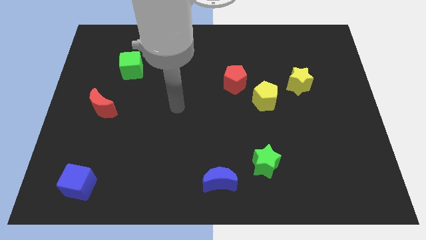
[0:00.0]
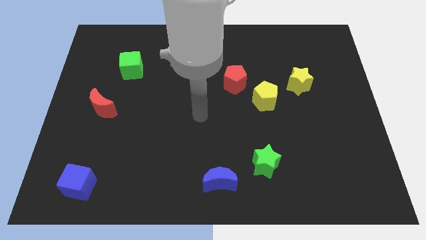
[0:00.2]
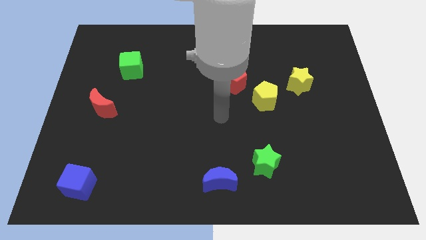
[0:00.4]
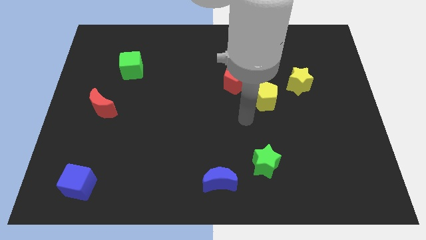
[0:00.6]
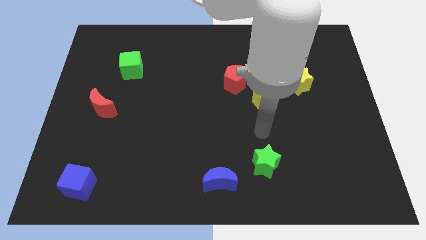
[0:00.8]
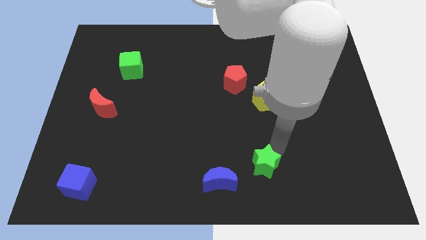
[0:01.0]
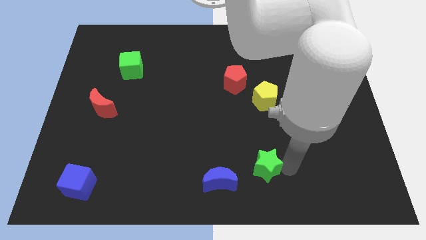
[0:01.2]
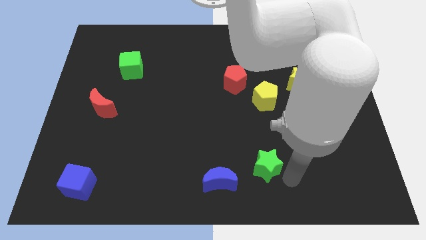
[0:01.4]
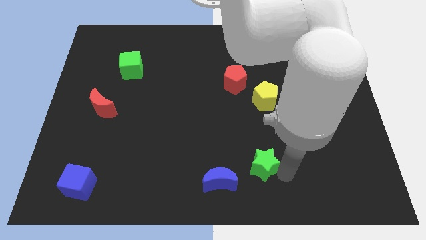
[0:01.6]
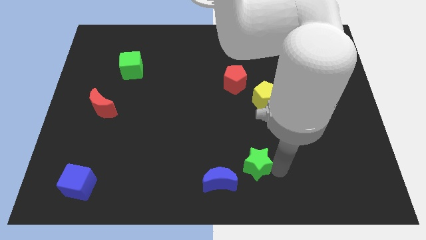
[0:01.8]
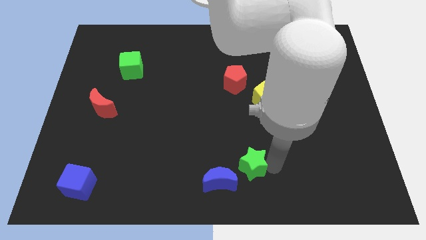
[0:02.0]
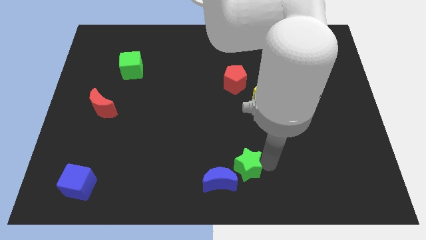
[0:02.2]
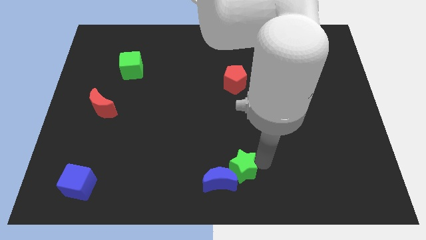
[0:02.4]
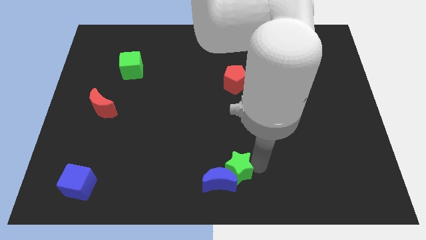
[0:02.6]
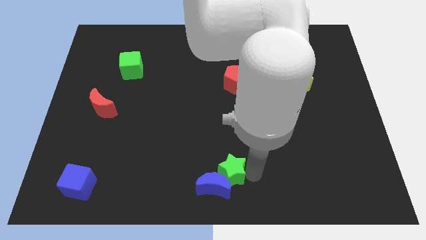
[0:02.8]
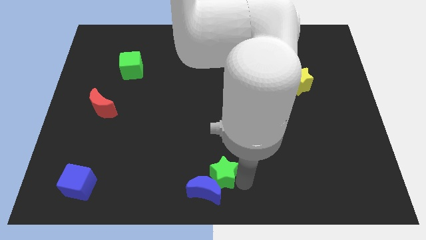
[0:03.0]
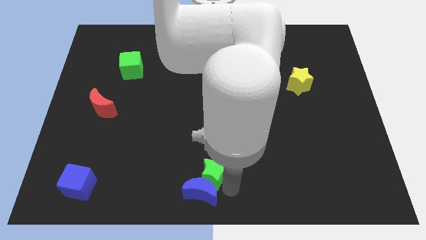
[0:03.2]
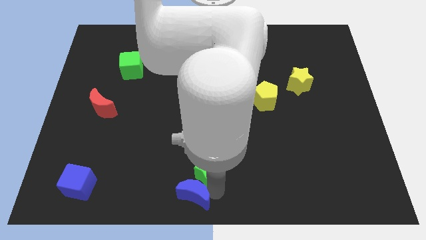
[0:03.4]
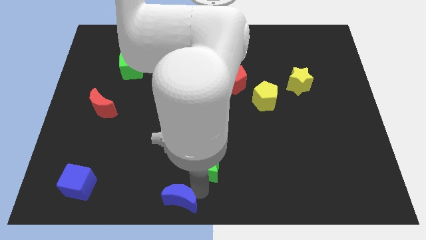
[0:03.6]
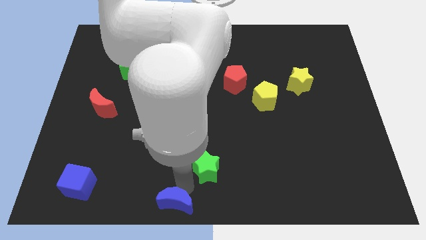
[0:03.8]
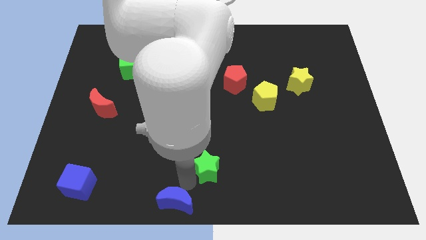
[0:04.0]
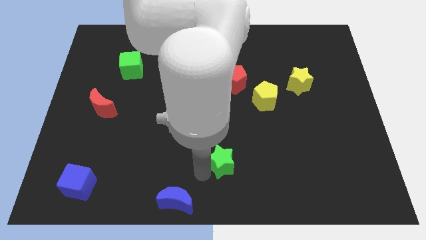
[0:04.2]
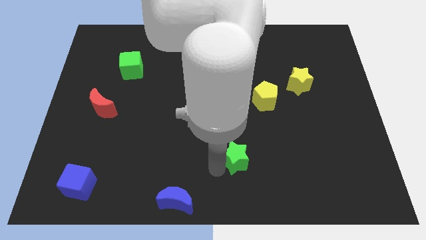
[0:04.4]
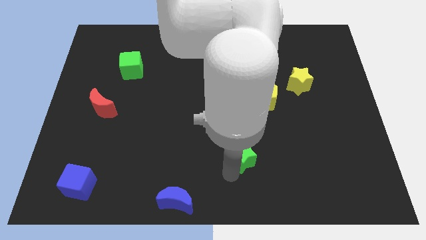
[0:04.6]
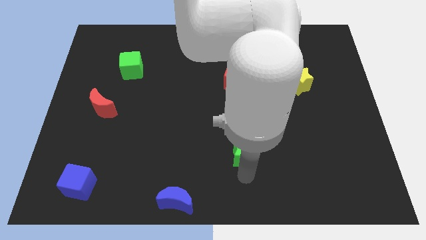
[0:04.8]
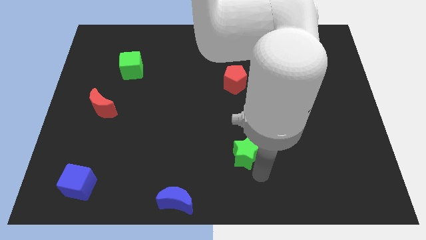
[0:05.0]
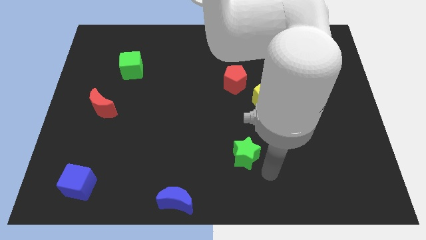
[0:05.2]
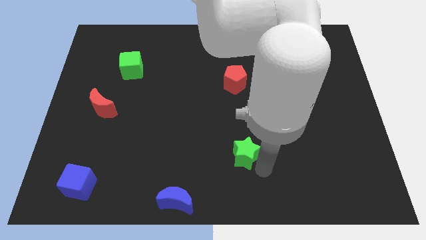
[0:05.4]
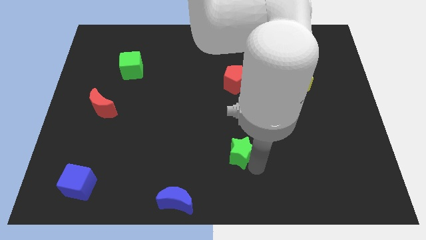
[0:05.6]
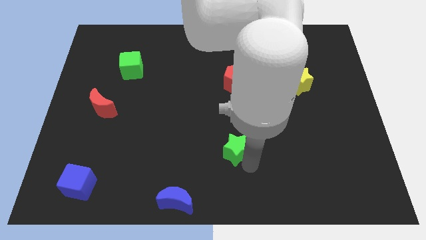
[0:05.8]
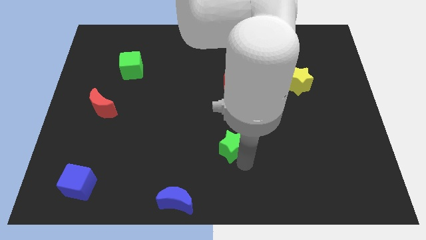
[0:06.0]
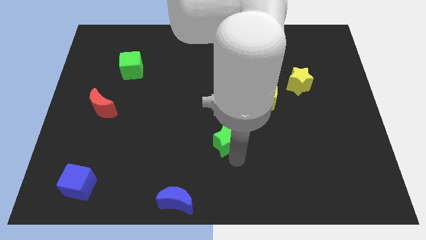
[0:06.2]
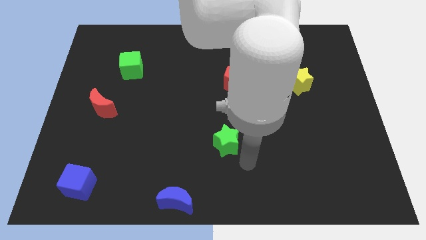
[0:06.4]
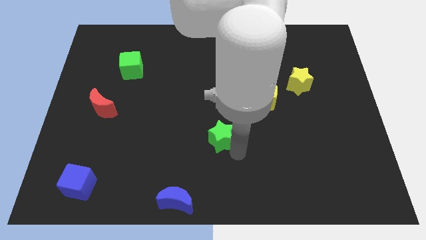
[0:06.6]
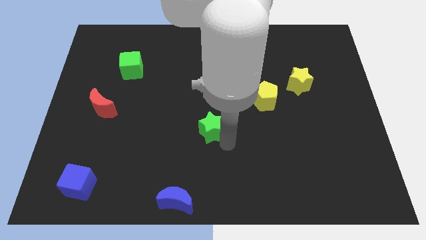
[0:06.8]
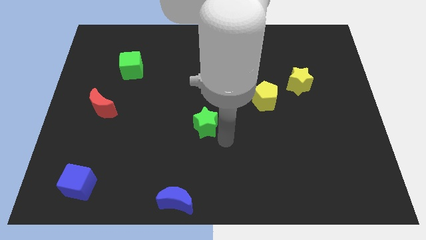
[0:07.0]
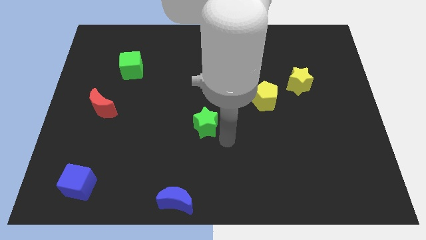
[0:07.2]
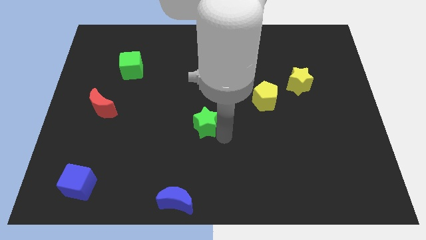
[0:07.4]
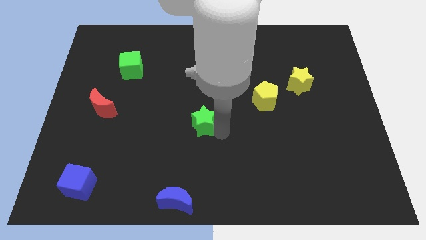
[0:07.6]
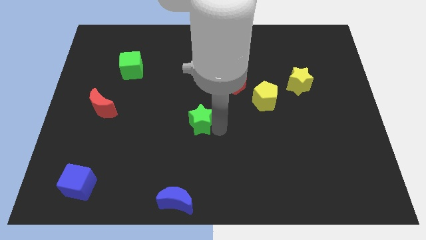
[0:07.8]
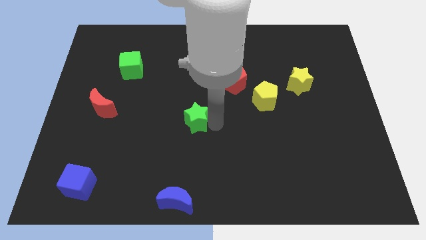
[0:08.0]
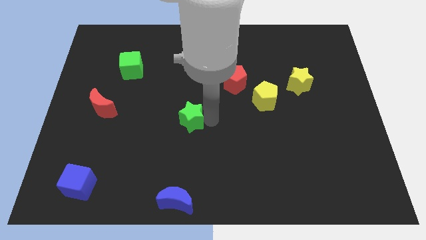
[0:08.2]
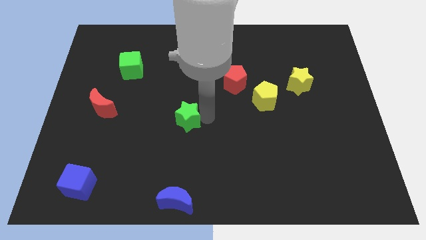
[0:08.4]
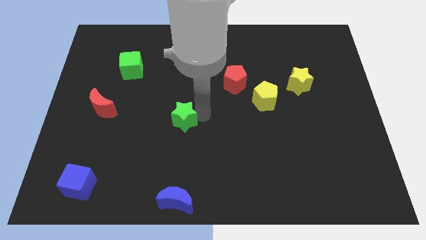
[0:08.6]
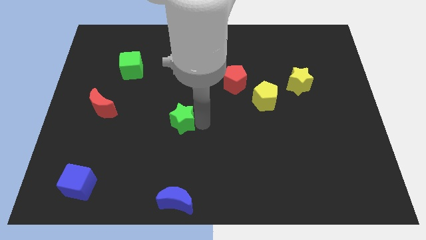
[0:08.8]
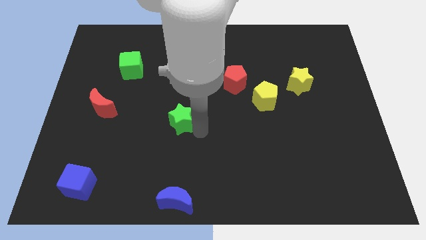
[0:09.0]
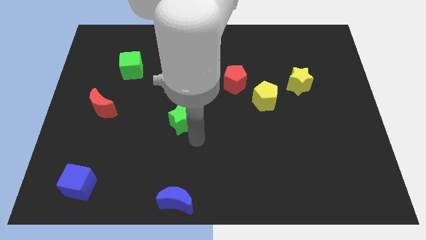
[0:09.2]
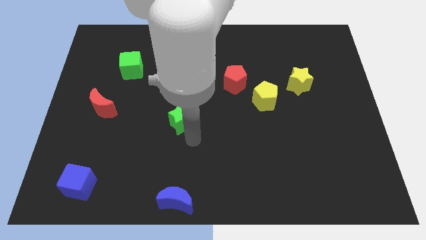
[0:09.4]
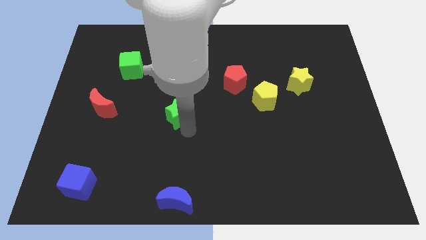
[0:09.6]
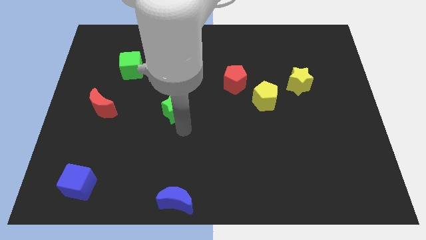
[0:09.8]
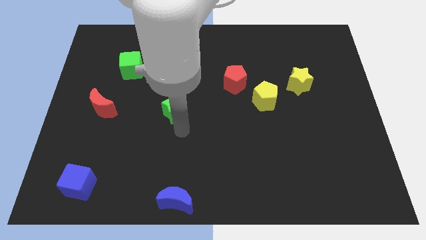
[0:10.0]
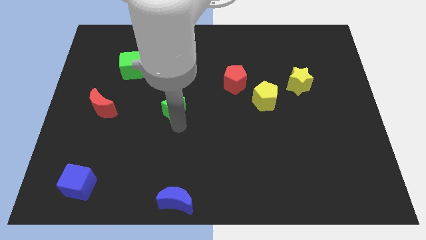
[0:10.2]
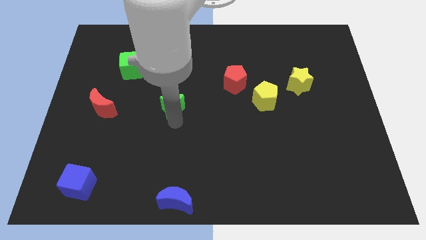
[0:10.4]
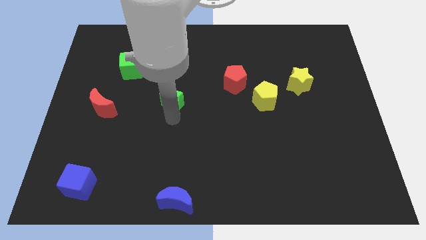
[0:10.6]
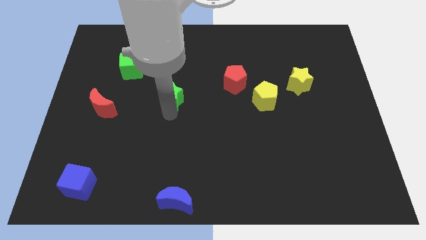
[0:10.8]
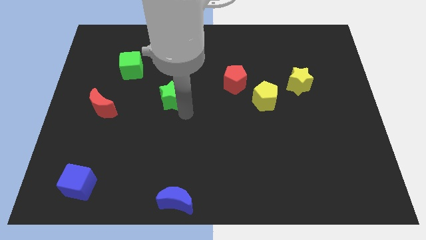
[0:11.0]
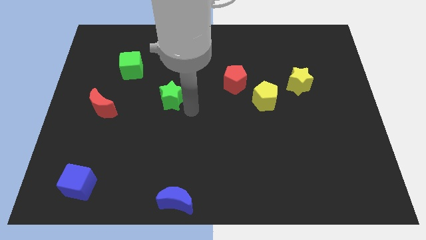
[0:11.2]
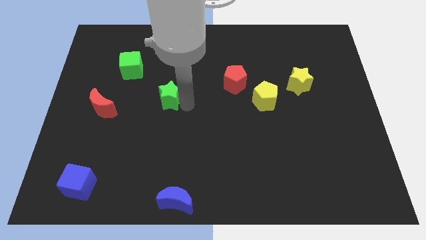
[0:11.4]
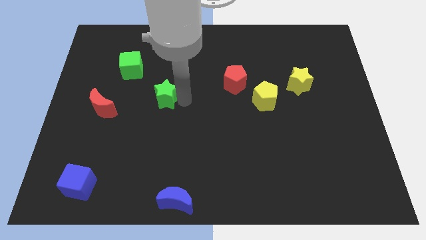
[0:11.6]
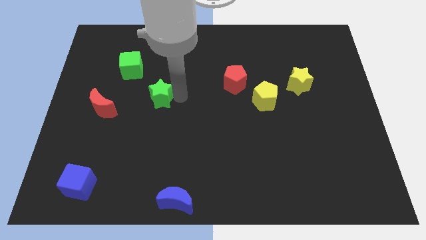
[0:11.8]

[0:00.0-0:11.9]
push the green star diagonally down and to the right of the green cube

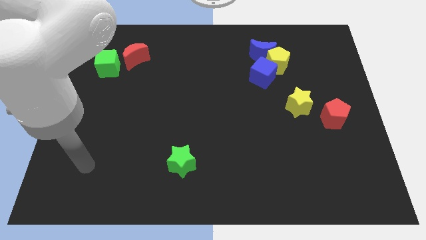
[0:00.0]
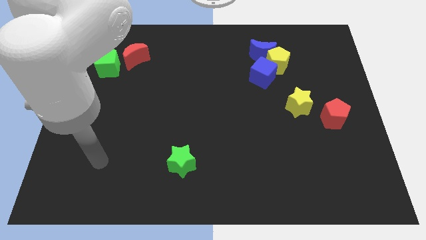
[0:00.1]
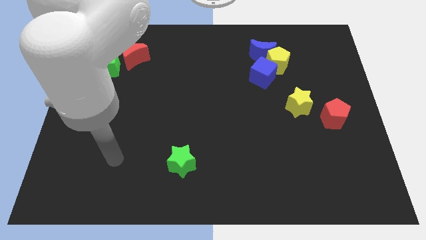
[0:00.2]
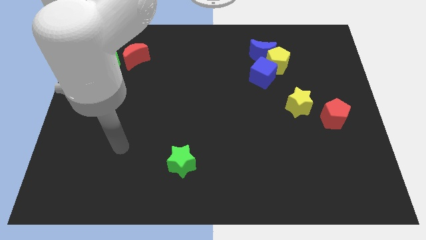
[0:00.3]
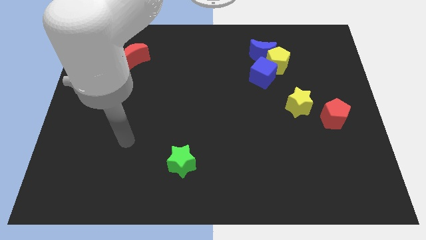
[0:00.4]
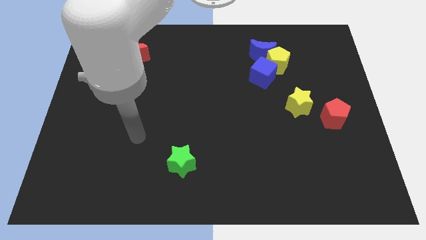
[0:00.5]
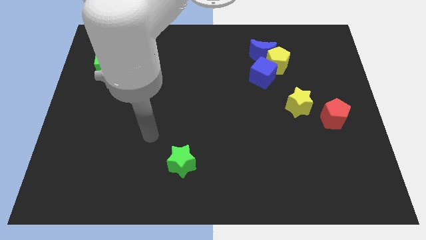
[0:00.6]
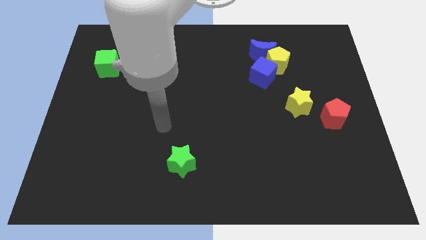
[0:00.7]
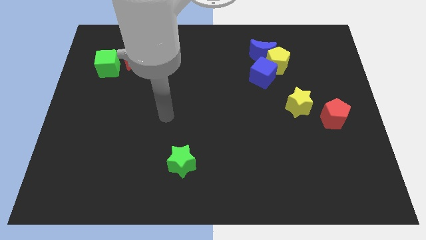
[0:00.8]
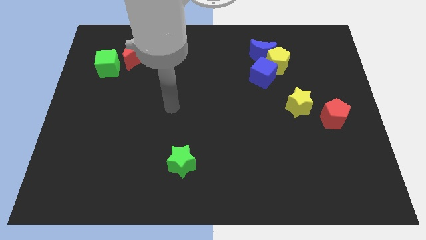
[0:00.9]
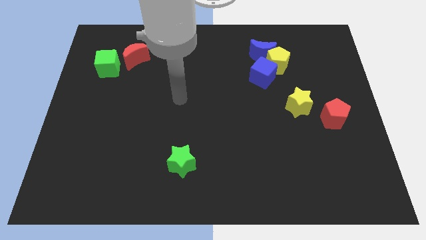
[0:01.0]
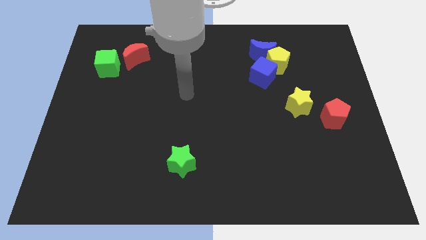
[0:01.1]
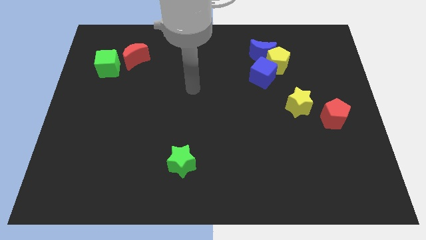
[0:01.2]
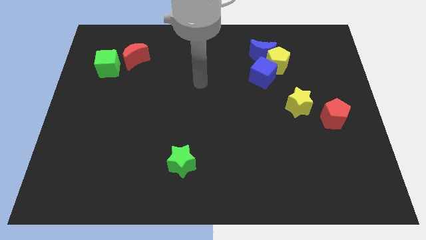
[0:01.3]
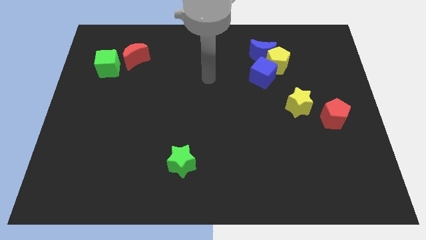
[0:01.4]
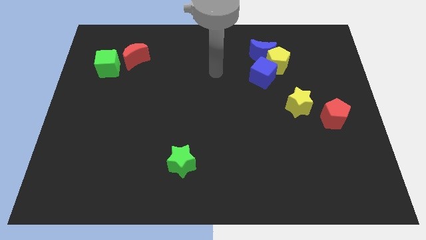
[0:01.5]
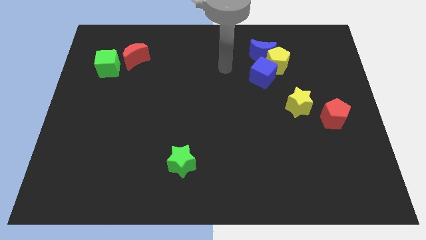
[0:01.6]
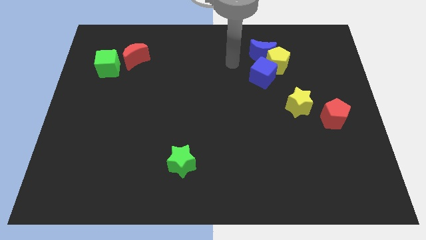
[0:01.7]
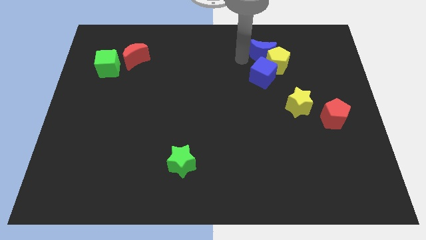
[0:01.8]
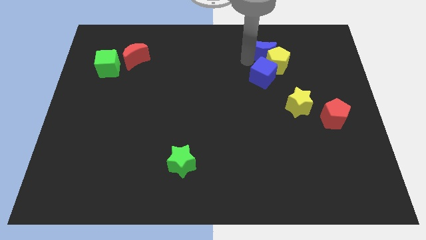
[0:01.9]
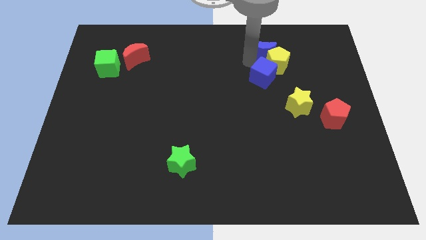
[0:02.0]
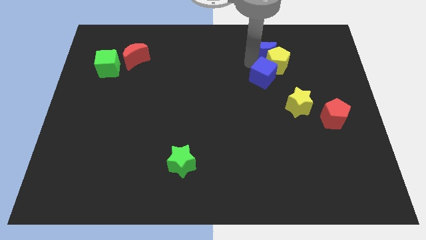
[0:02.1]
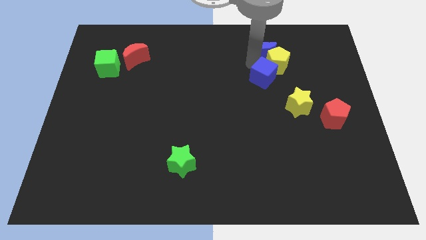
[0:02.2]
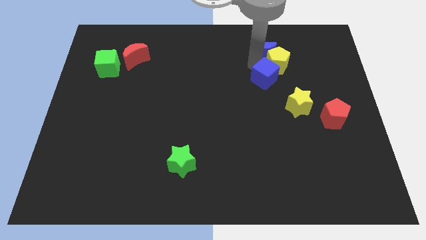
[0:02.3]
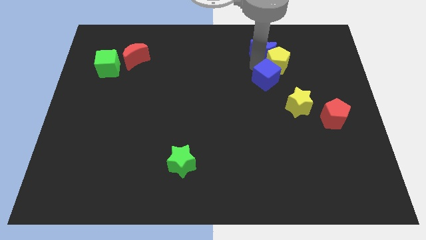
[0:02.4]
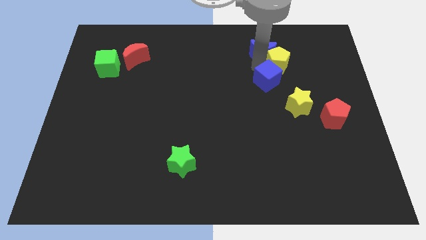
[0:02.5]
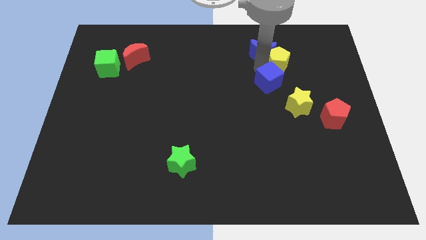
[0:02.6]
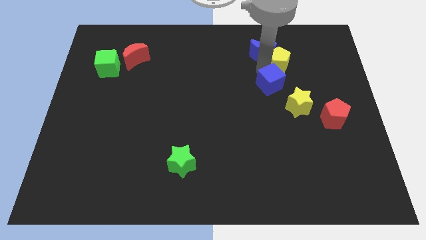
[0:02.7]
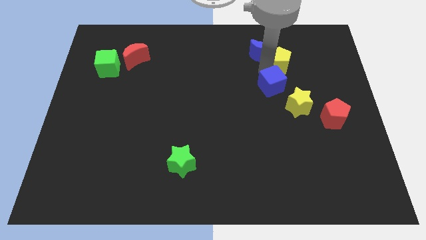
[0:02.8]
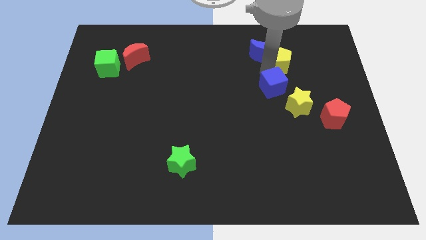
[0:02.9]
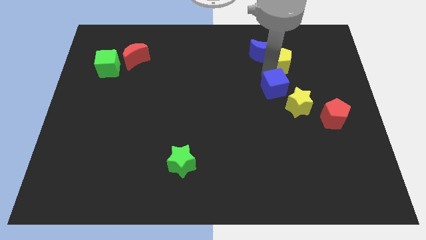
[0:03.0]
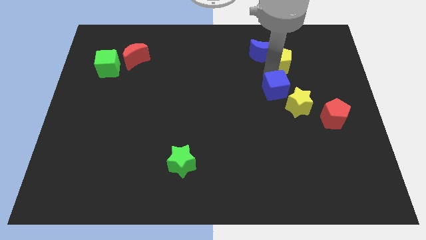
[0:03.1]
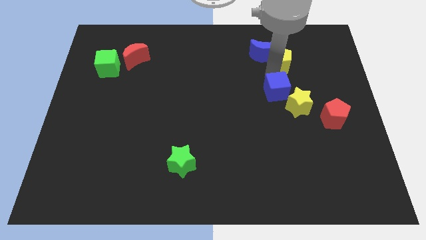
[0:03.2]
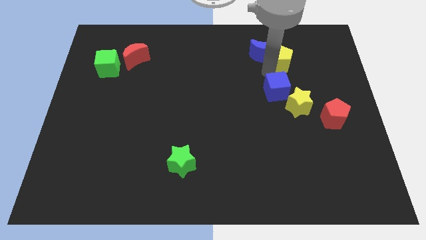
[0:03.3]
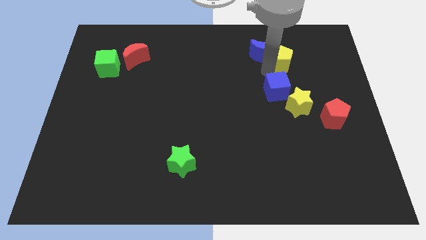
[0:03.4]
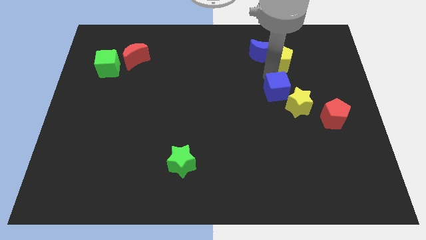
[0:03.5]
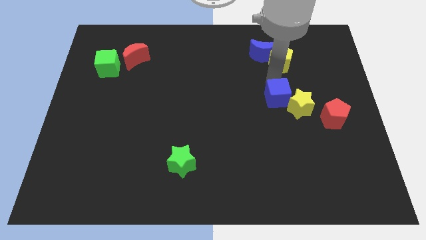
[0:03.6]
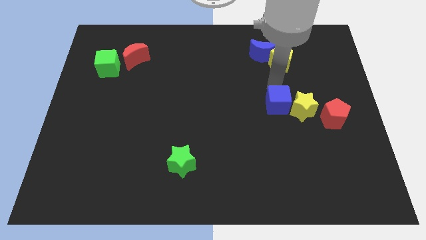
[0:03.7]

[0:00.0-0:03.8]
slide the blue cube left of the red pentagon
